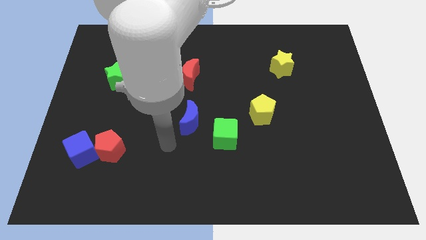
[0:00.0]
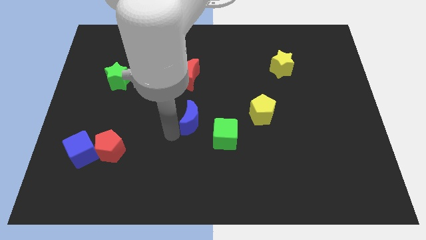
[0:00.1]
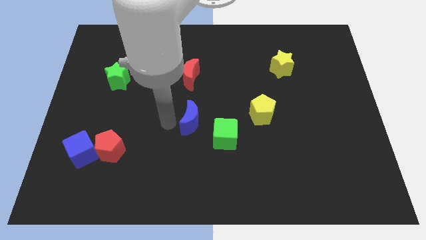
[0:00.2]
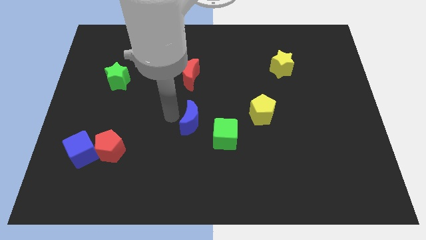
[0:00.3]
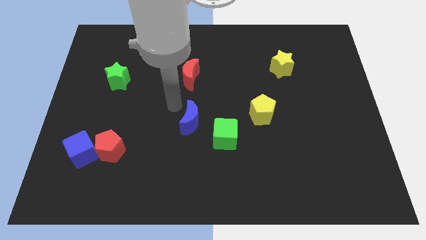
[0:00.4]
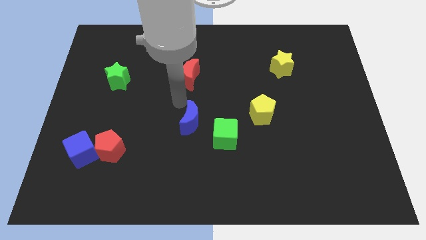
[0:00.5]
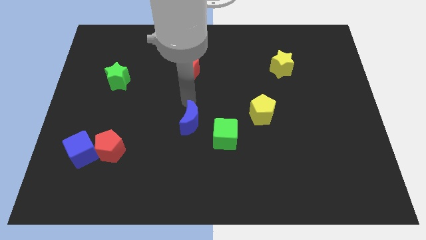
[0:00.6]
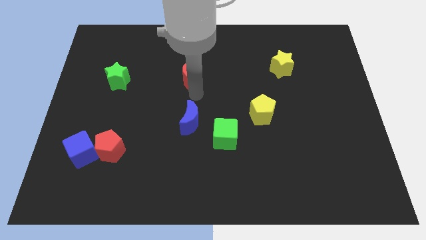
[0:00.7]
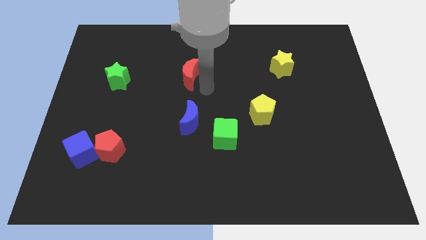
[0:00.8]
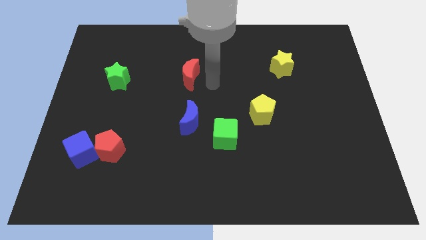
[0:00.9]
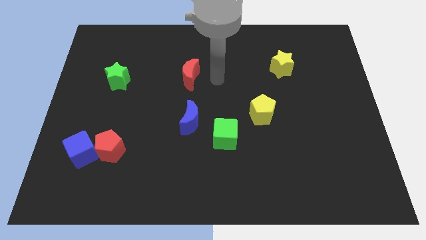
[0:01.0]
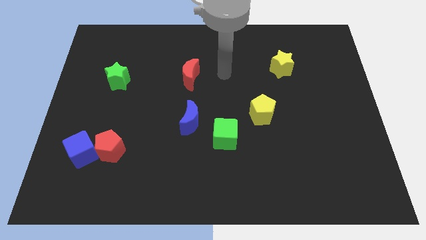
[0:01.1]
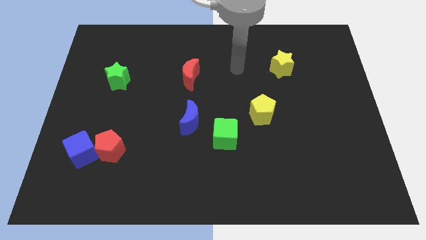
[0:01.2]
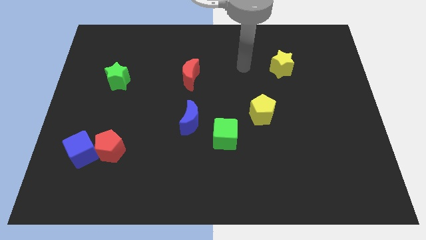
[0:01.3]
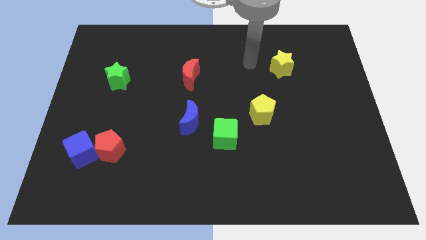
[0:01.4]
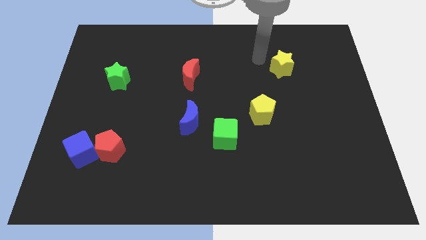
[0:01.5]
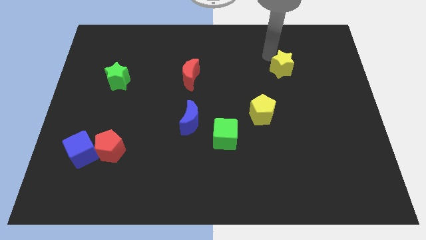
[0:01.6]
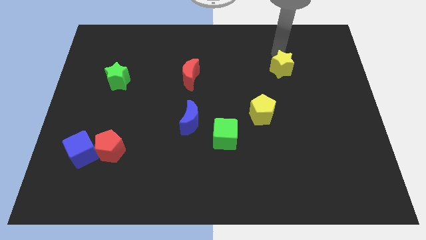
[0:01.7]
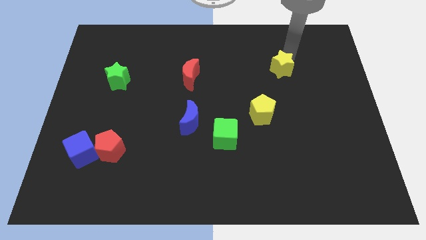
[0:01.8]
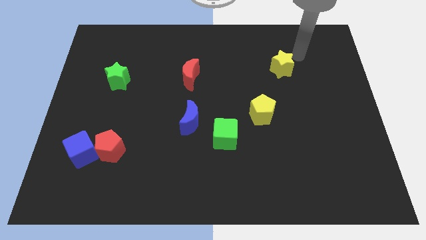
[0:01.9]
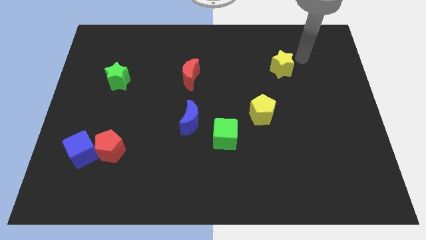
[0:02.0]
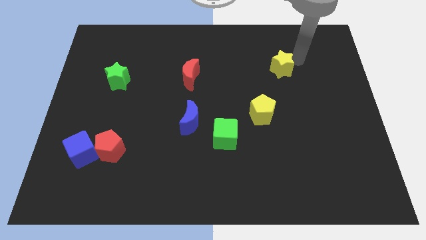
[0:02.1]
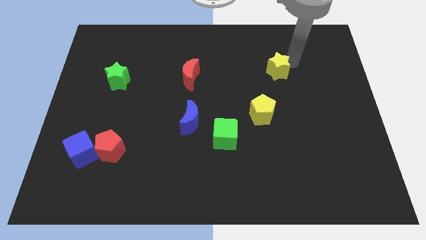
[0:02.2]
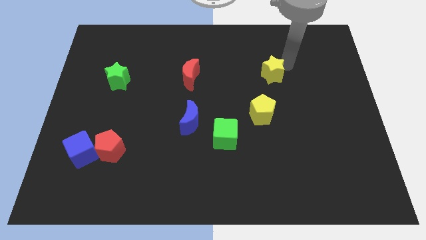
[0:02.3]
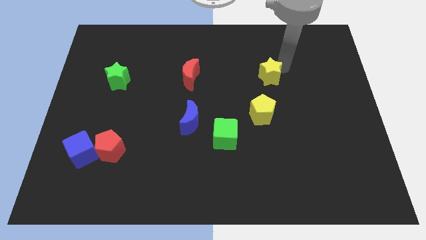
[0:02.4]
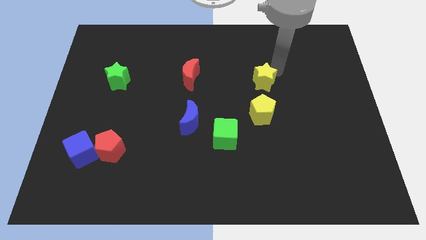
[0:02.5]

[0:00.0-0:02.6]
slide the yellow star down and left diagonally slightly

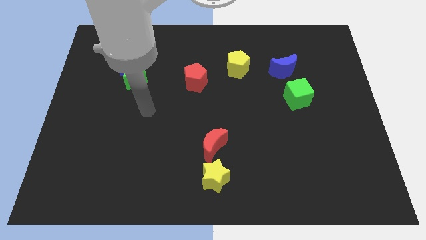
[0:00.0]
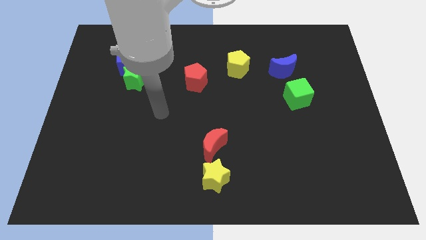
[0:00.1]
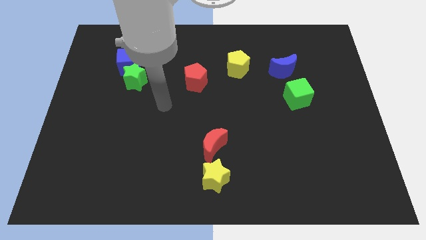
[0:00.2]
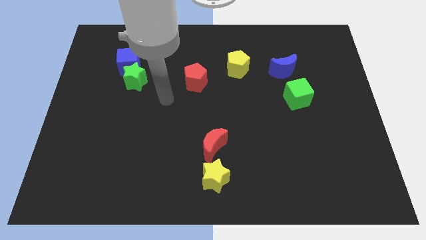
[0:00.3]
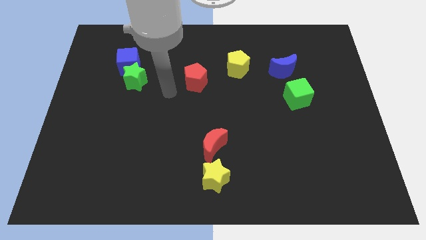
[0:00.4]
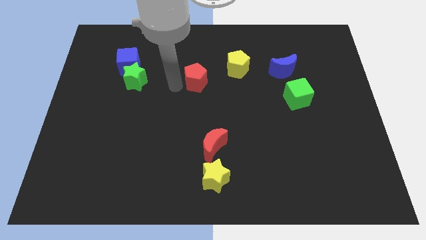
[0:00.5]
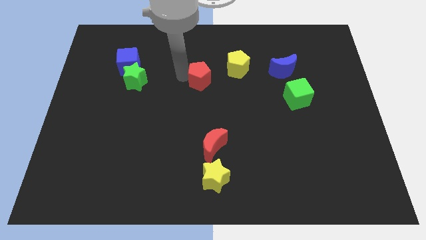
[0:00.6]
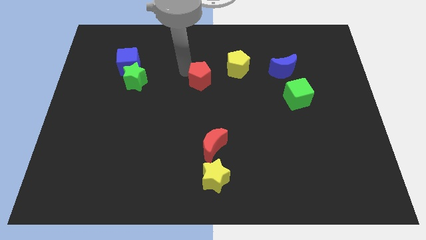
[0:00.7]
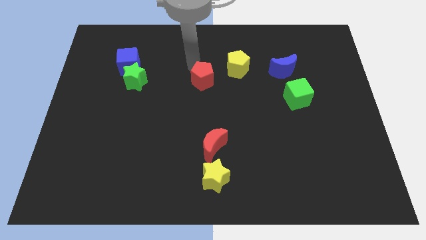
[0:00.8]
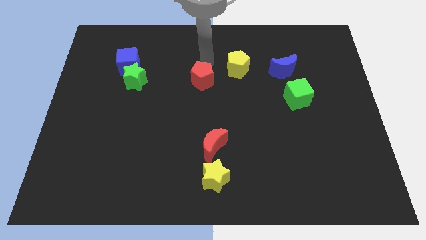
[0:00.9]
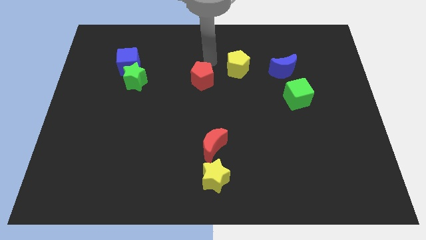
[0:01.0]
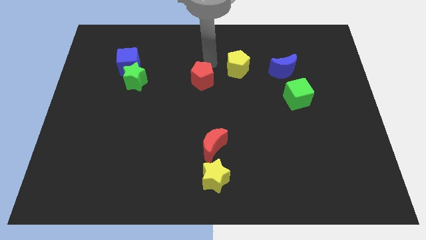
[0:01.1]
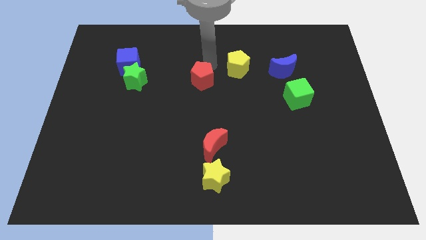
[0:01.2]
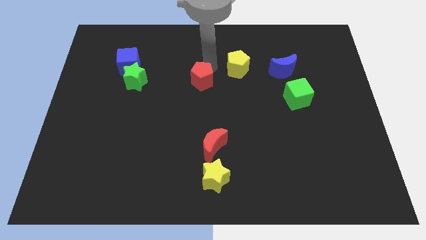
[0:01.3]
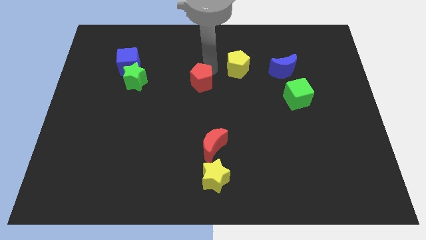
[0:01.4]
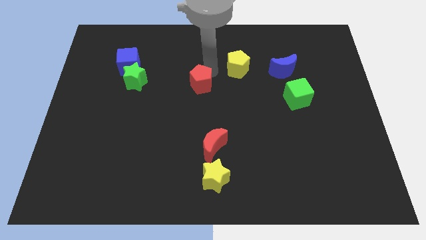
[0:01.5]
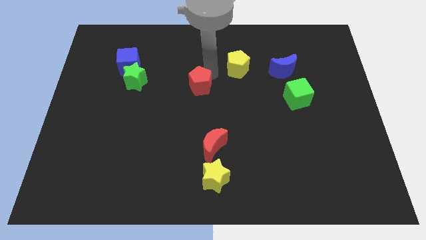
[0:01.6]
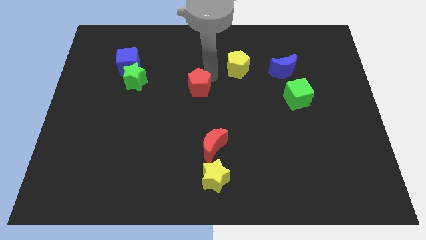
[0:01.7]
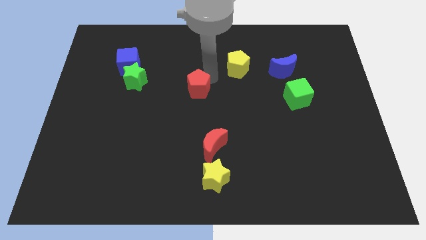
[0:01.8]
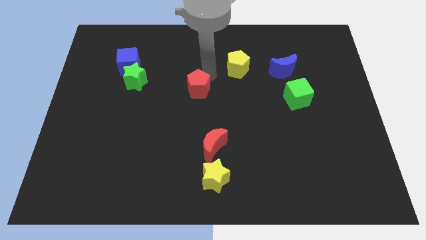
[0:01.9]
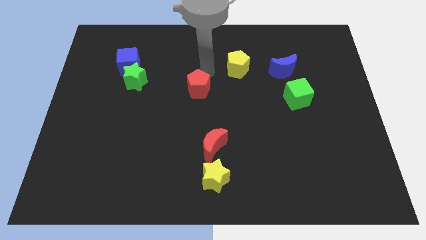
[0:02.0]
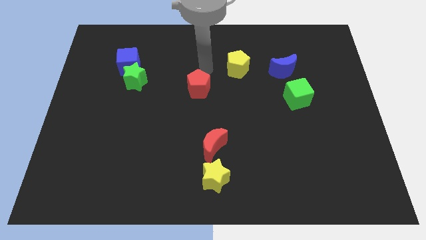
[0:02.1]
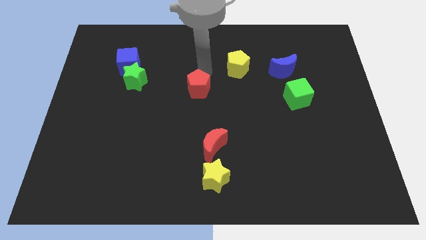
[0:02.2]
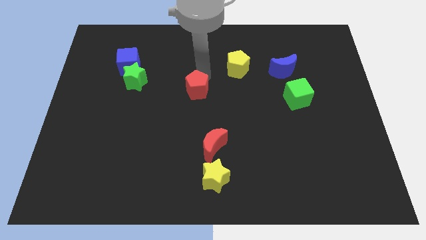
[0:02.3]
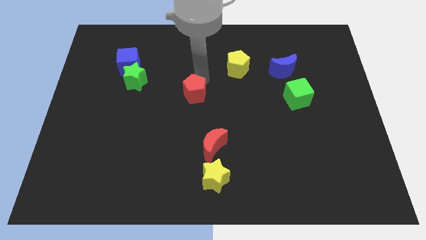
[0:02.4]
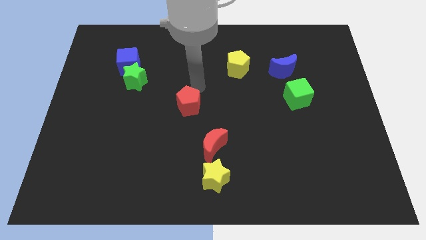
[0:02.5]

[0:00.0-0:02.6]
slightly move the red pentagon downwards

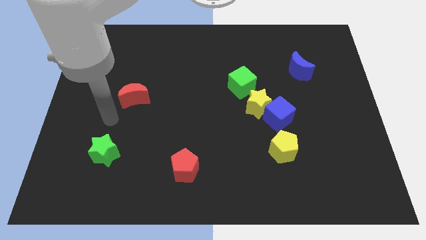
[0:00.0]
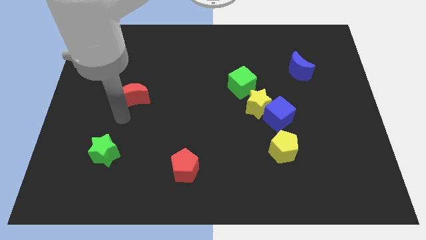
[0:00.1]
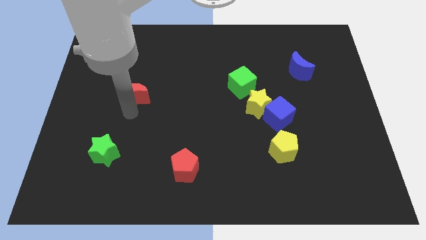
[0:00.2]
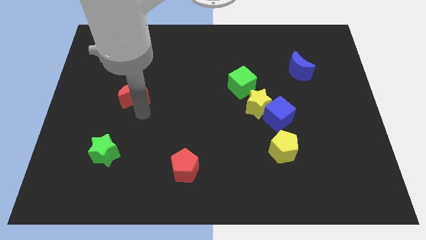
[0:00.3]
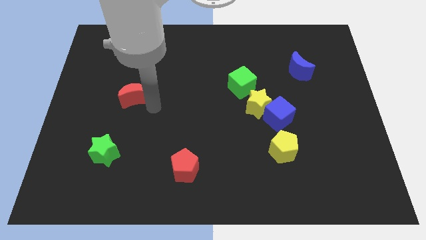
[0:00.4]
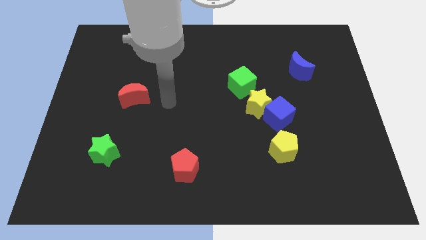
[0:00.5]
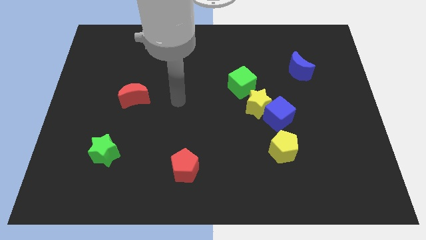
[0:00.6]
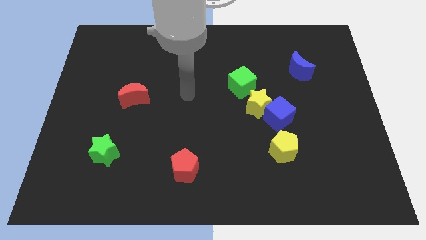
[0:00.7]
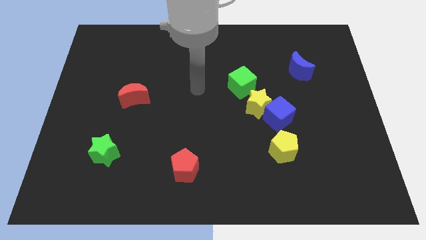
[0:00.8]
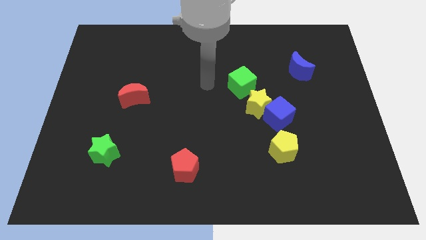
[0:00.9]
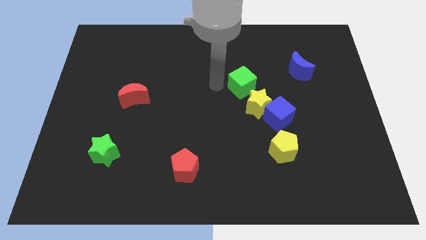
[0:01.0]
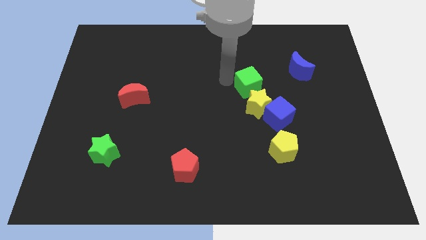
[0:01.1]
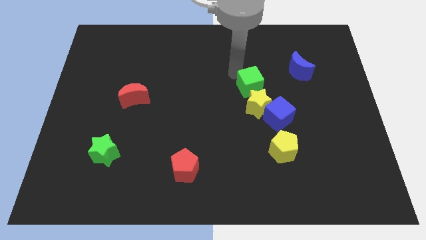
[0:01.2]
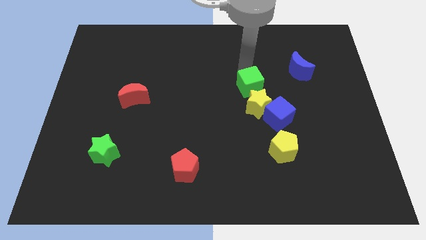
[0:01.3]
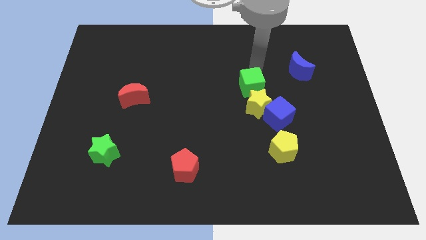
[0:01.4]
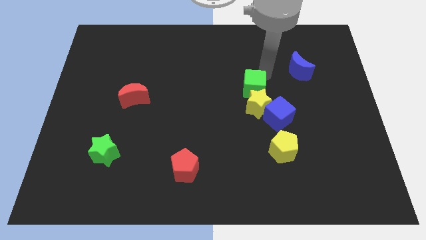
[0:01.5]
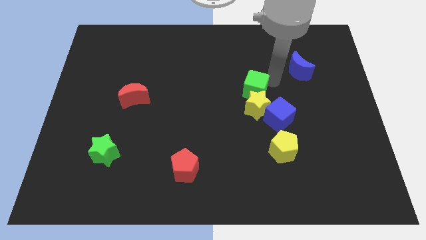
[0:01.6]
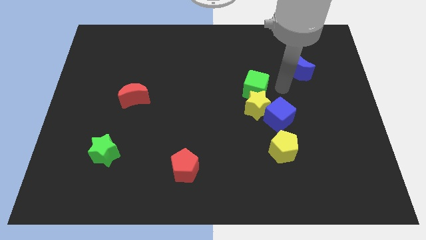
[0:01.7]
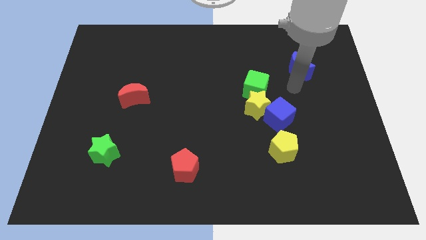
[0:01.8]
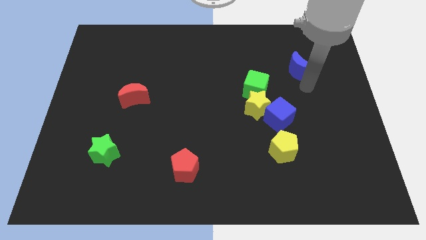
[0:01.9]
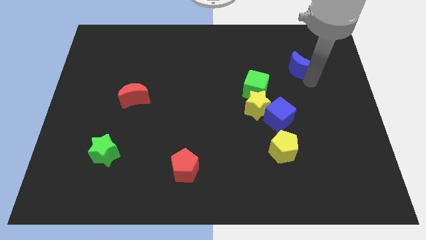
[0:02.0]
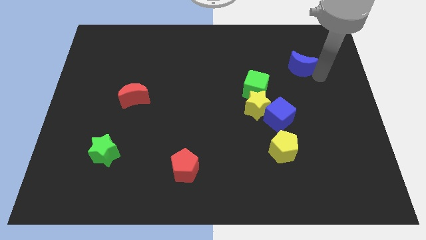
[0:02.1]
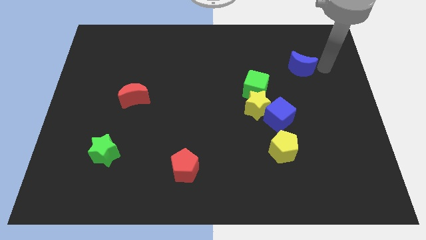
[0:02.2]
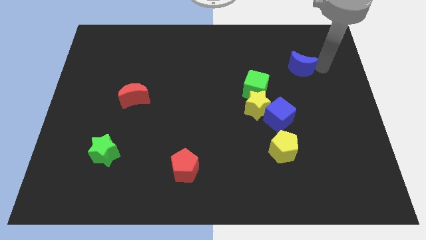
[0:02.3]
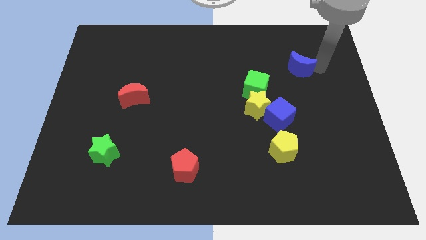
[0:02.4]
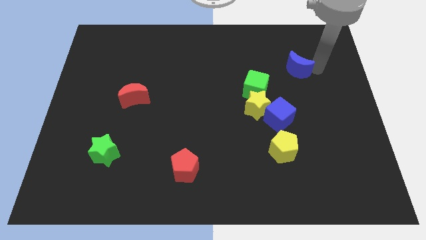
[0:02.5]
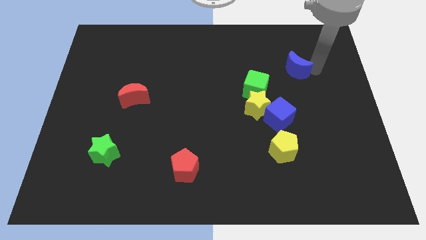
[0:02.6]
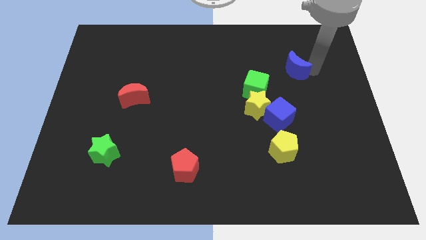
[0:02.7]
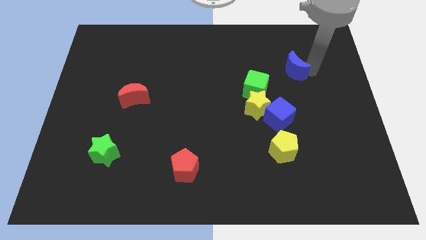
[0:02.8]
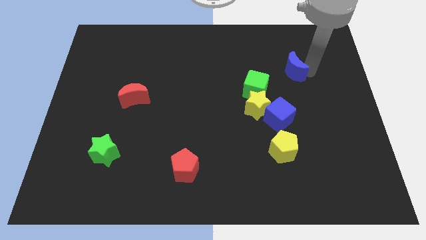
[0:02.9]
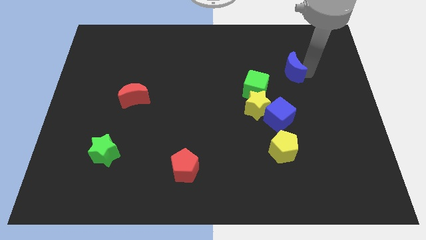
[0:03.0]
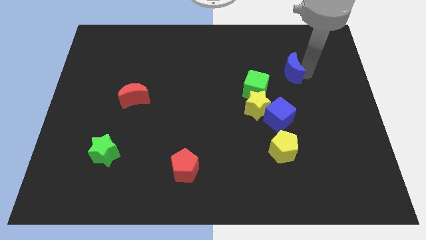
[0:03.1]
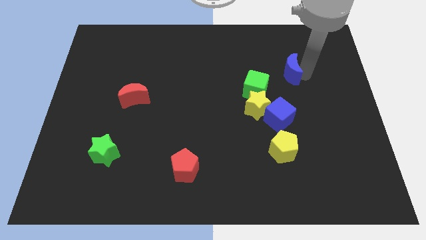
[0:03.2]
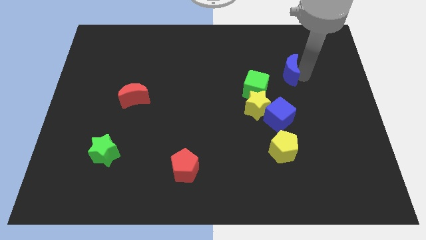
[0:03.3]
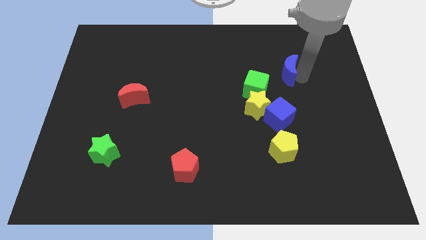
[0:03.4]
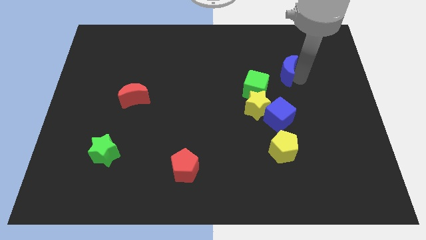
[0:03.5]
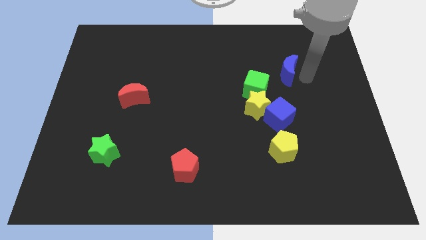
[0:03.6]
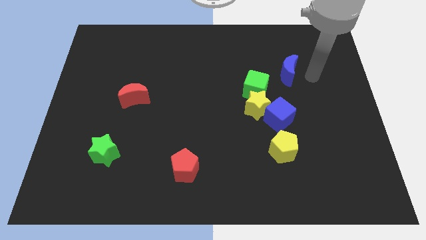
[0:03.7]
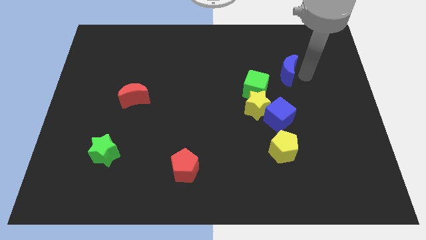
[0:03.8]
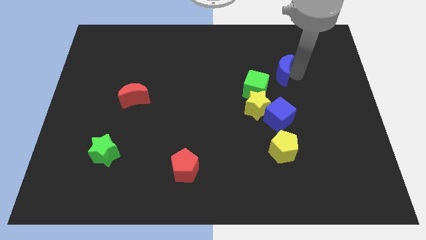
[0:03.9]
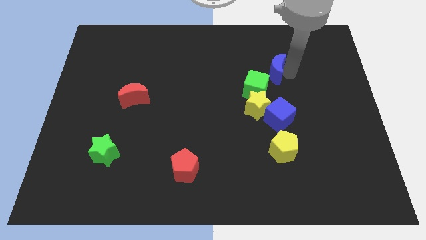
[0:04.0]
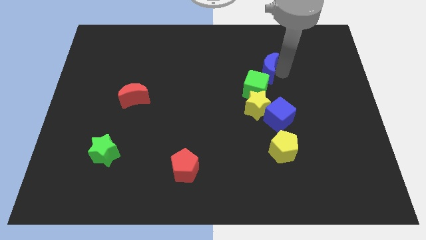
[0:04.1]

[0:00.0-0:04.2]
slightly push the blue moon to the left
